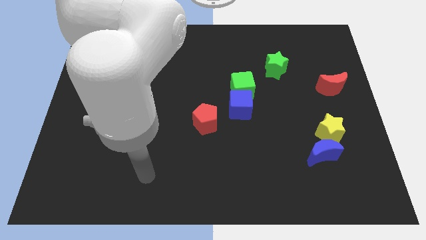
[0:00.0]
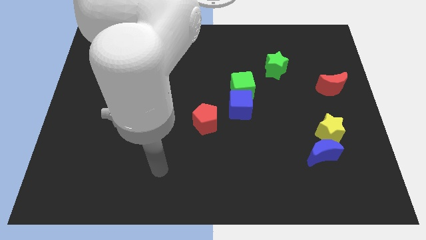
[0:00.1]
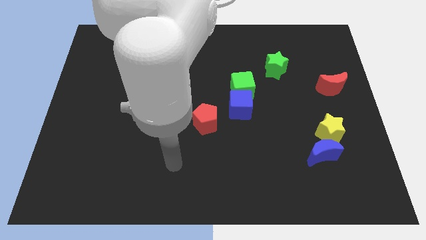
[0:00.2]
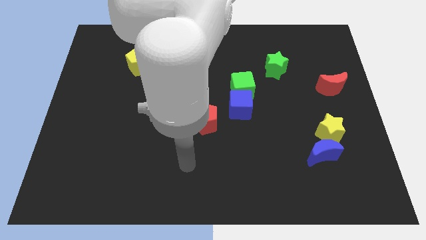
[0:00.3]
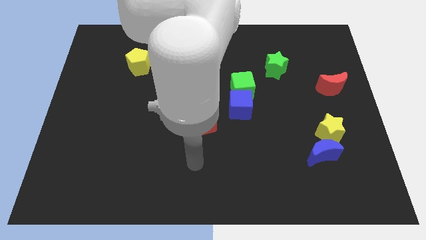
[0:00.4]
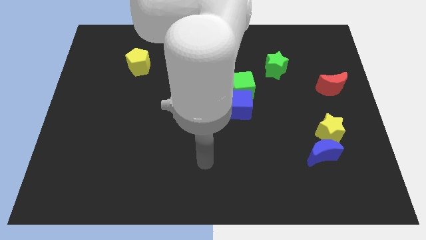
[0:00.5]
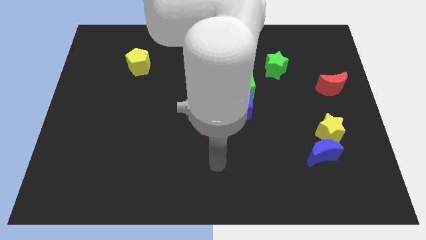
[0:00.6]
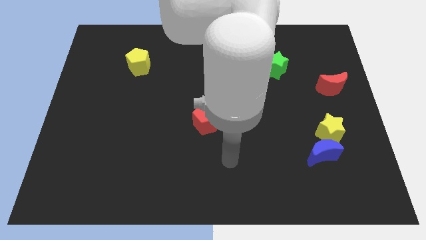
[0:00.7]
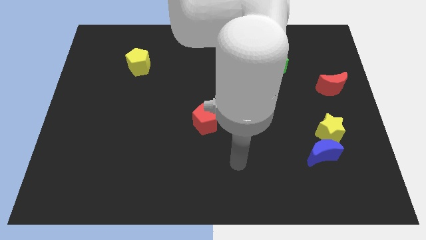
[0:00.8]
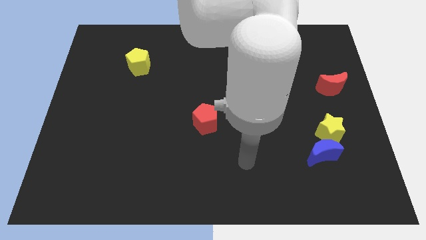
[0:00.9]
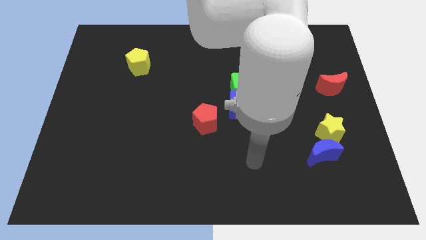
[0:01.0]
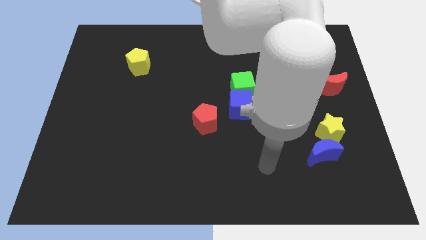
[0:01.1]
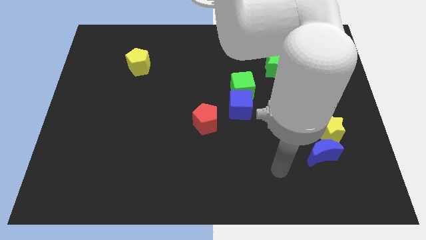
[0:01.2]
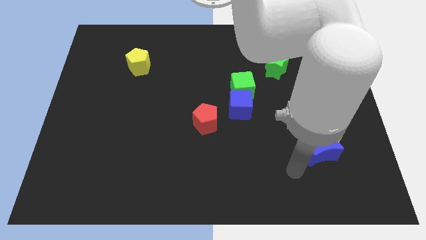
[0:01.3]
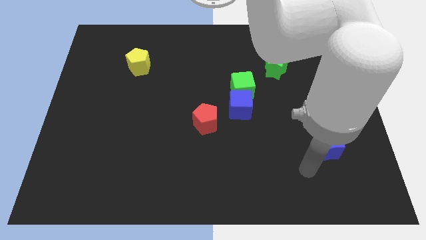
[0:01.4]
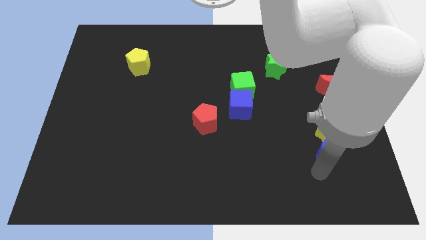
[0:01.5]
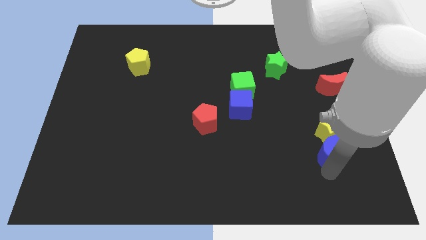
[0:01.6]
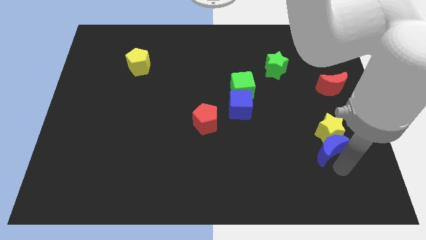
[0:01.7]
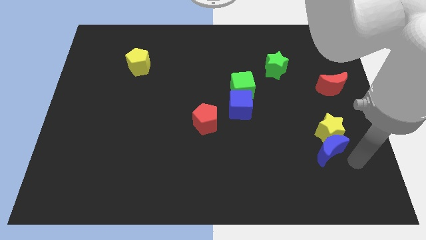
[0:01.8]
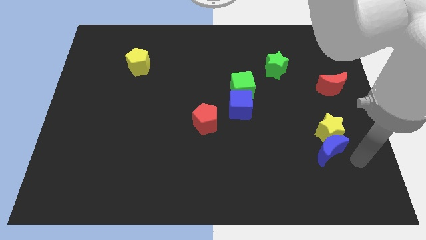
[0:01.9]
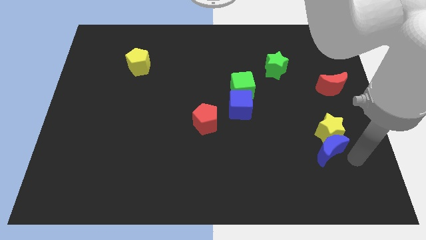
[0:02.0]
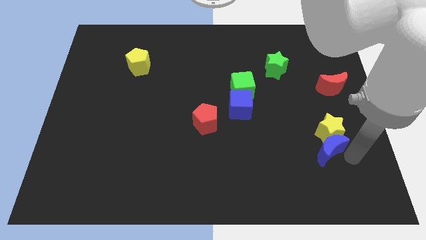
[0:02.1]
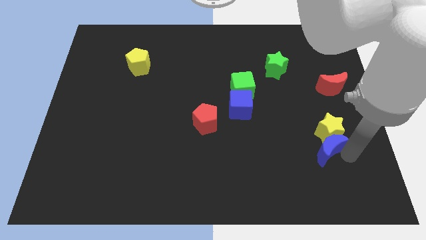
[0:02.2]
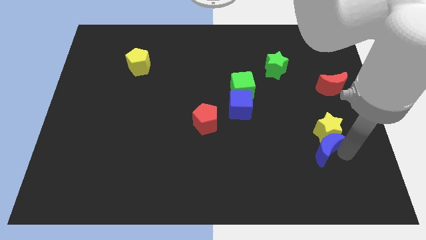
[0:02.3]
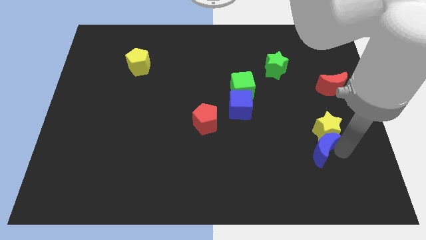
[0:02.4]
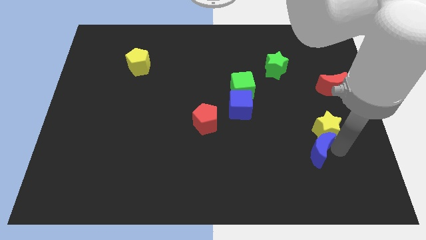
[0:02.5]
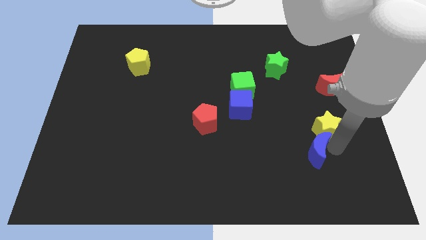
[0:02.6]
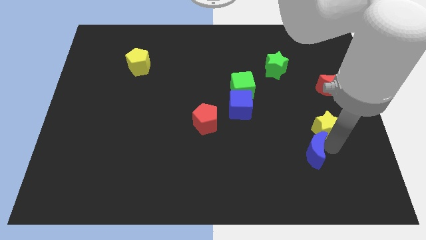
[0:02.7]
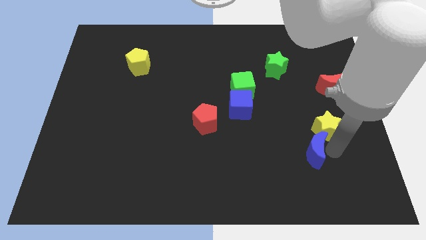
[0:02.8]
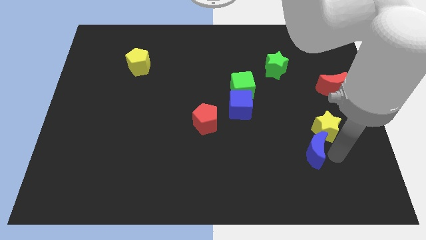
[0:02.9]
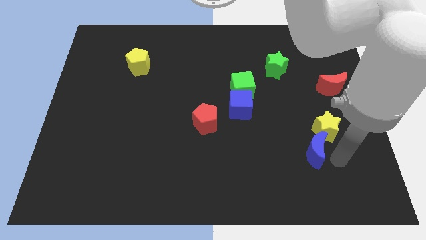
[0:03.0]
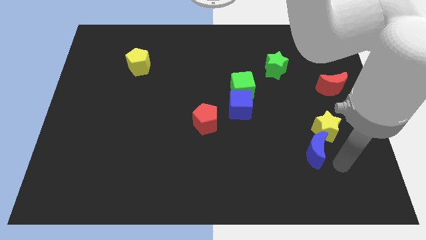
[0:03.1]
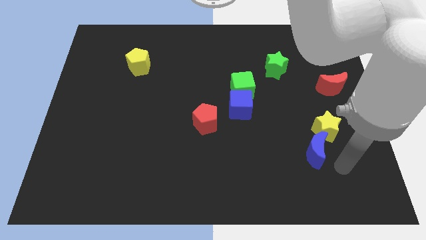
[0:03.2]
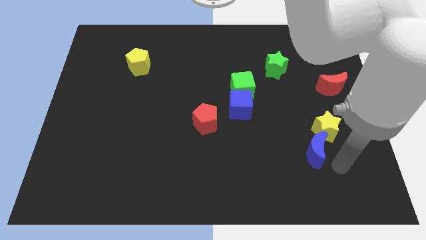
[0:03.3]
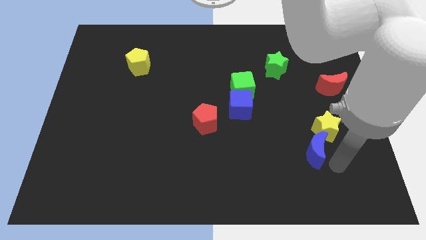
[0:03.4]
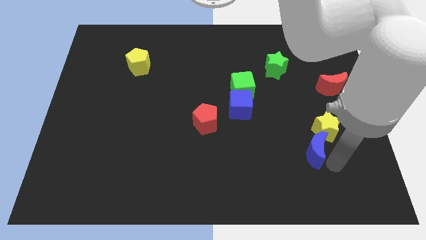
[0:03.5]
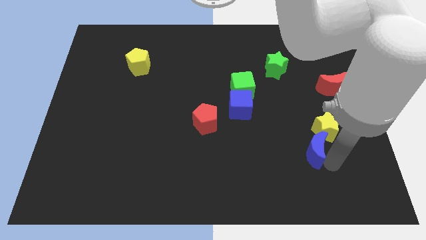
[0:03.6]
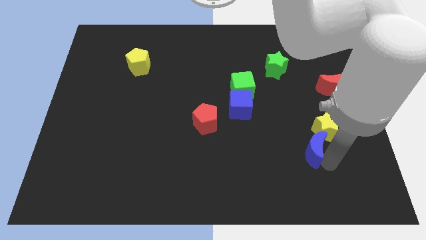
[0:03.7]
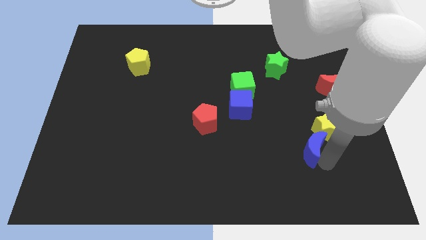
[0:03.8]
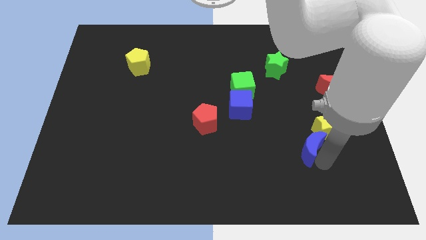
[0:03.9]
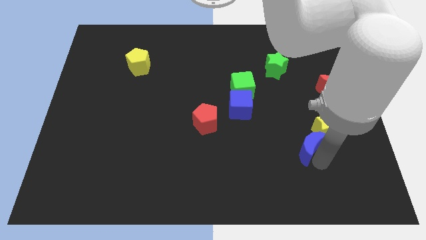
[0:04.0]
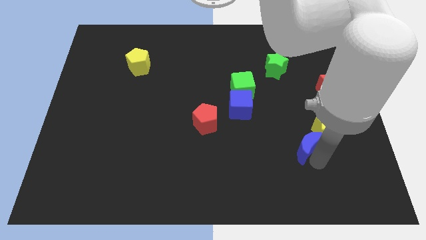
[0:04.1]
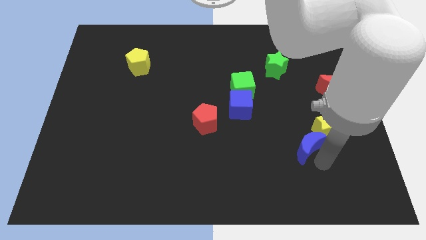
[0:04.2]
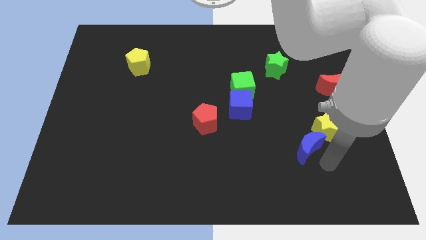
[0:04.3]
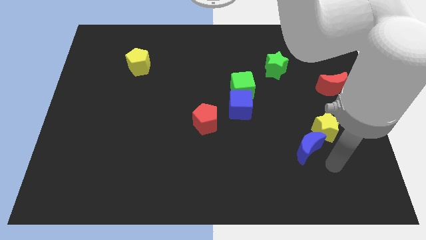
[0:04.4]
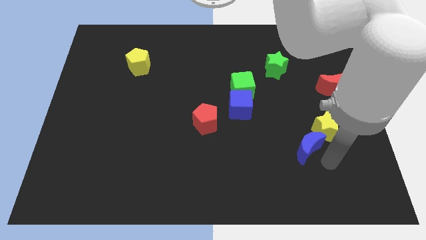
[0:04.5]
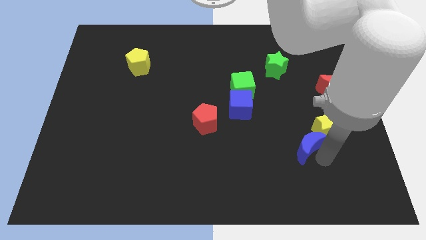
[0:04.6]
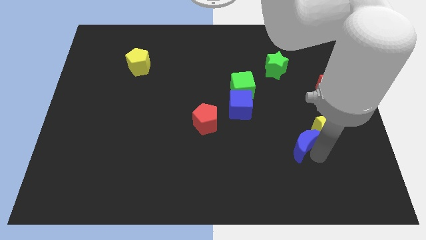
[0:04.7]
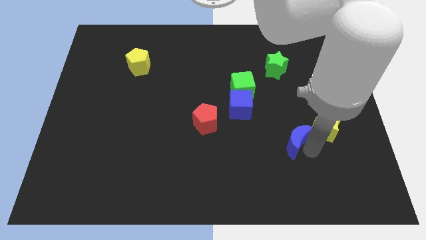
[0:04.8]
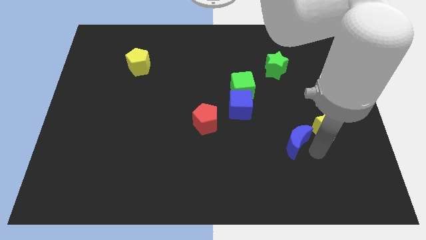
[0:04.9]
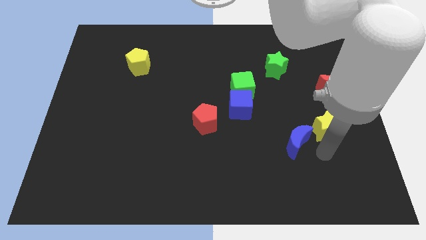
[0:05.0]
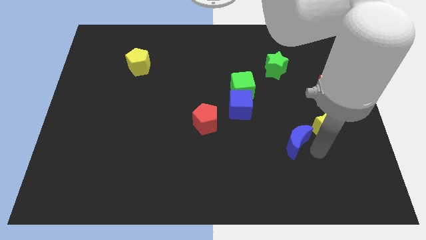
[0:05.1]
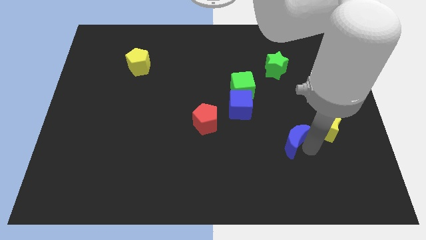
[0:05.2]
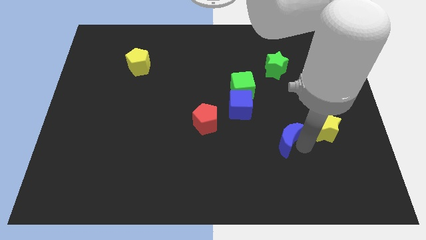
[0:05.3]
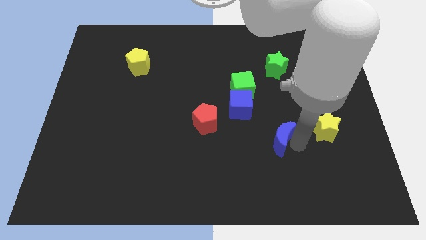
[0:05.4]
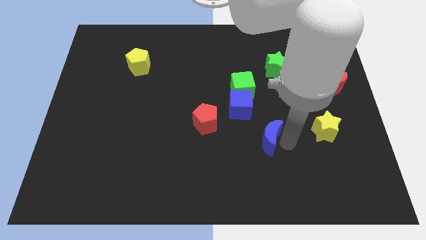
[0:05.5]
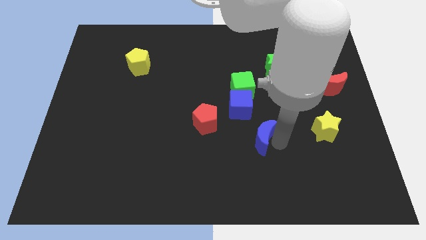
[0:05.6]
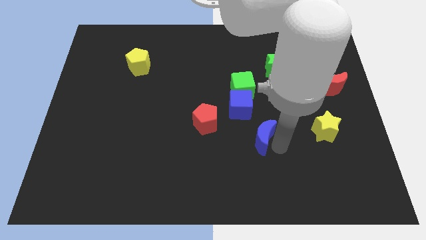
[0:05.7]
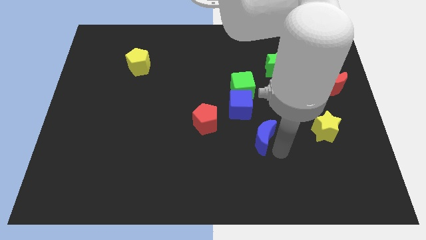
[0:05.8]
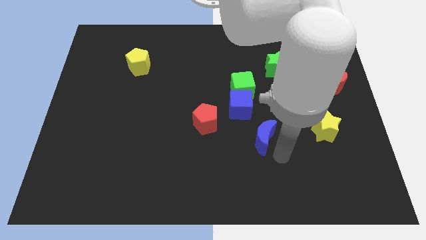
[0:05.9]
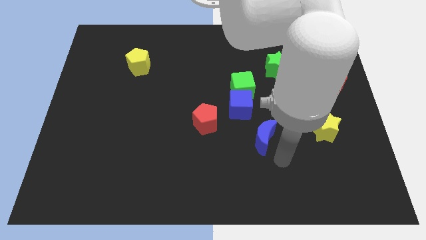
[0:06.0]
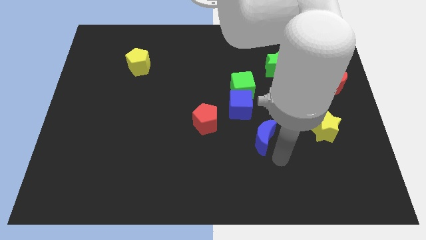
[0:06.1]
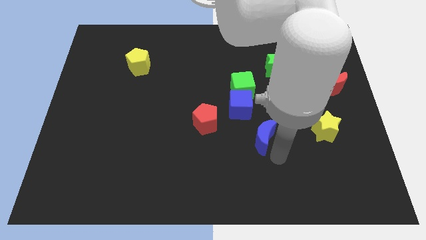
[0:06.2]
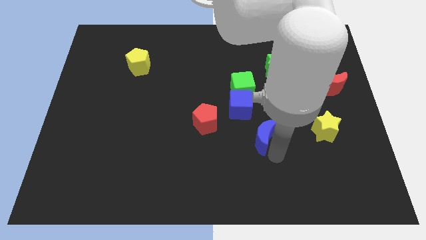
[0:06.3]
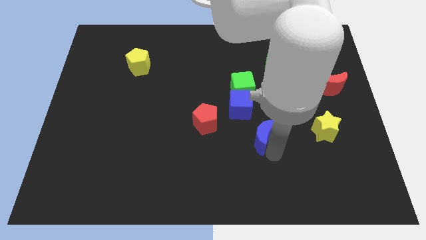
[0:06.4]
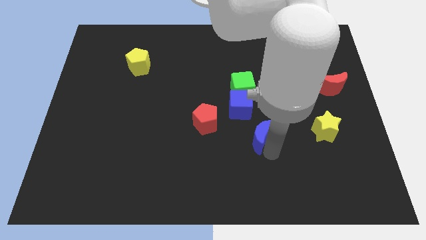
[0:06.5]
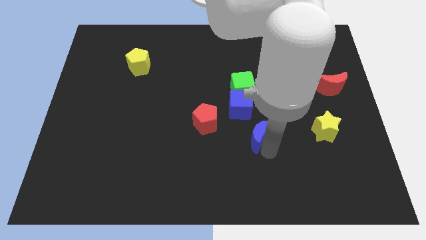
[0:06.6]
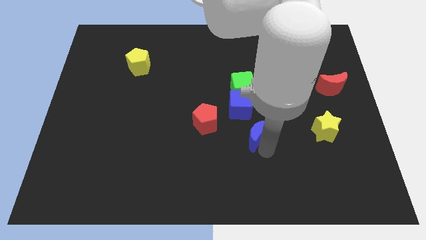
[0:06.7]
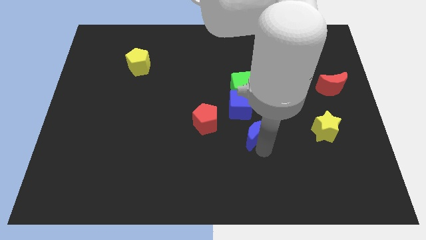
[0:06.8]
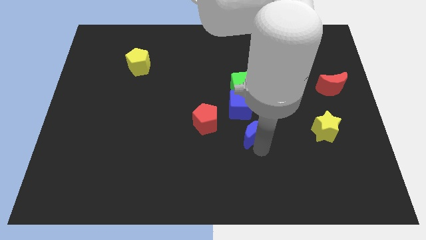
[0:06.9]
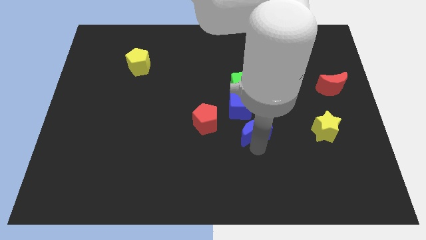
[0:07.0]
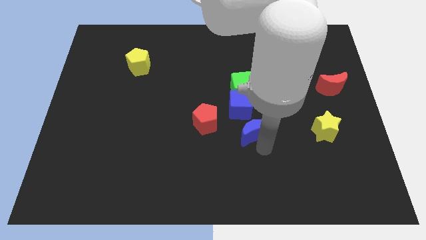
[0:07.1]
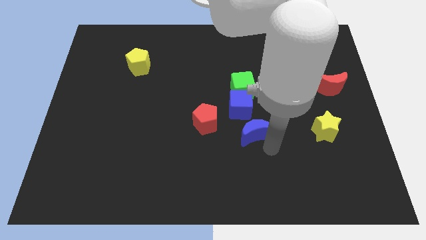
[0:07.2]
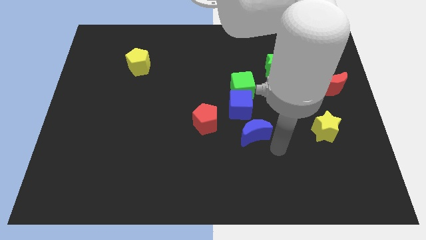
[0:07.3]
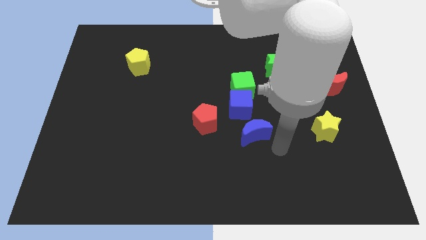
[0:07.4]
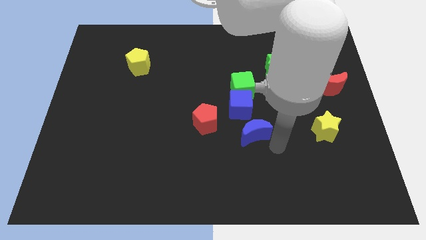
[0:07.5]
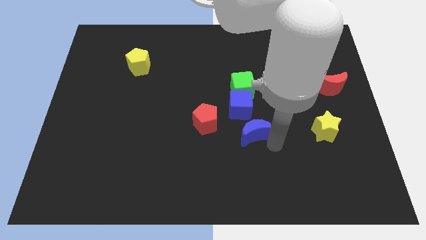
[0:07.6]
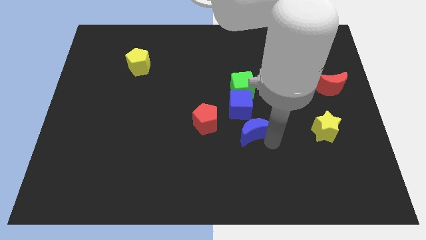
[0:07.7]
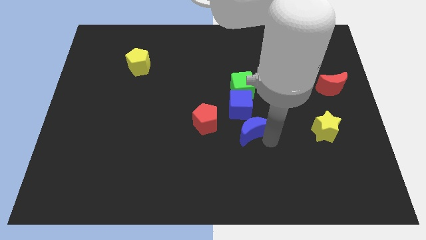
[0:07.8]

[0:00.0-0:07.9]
slide the blue moon to the center of the board
